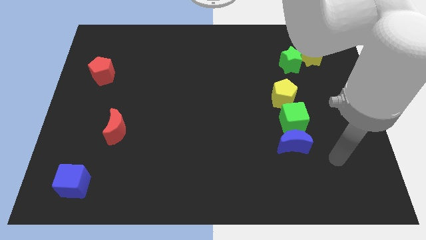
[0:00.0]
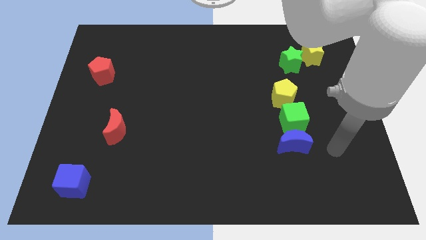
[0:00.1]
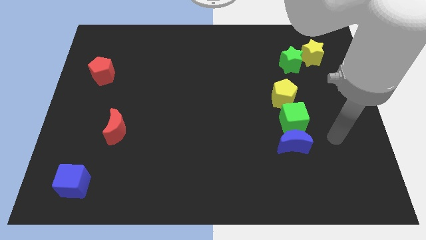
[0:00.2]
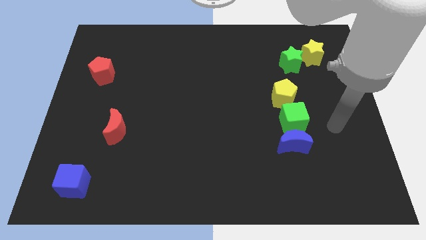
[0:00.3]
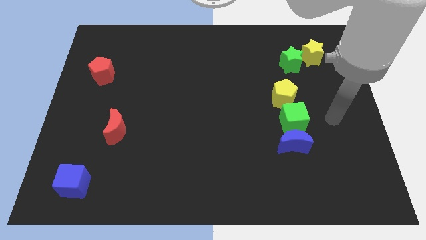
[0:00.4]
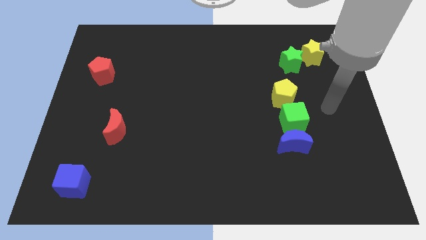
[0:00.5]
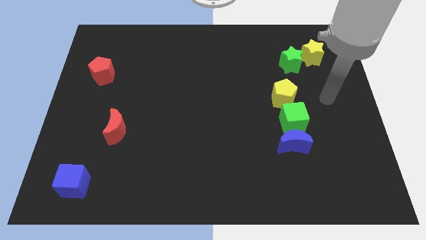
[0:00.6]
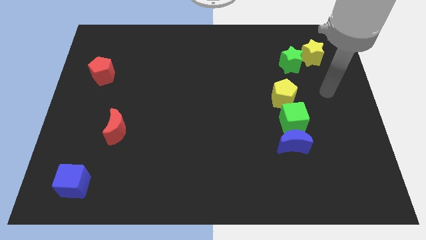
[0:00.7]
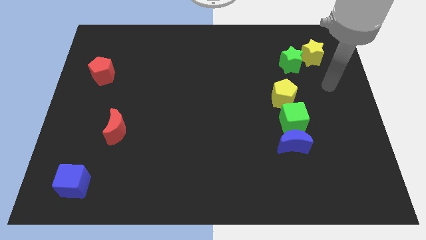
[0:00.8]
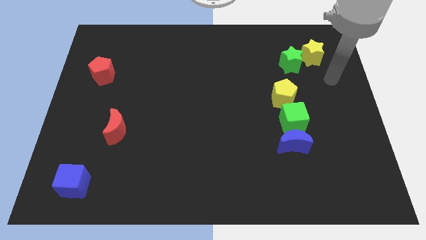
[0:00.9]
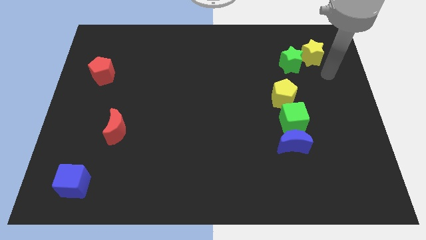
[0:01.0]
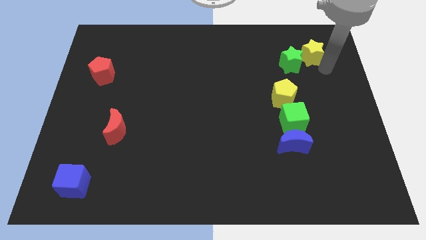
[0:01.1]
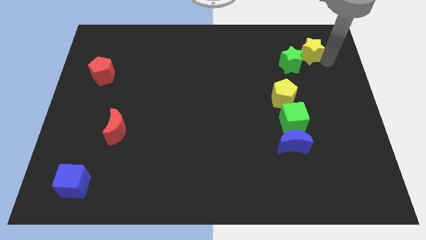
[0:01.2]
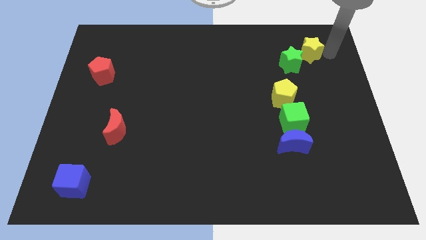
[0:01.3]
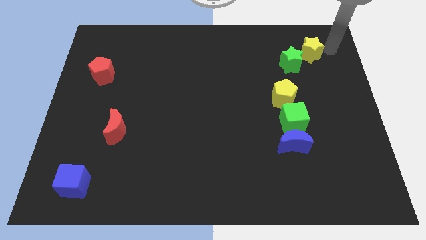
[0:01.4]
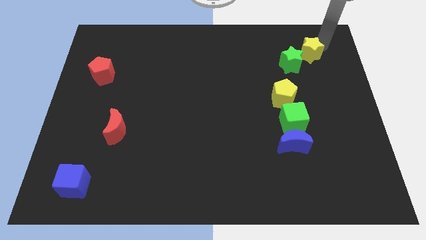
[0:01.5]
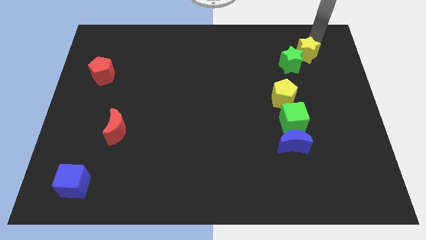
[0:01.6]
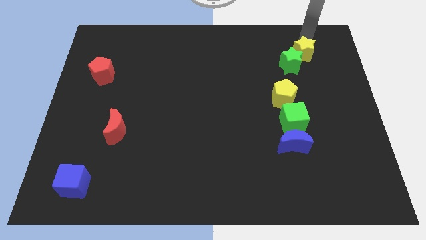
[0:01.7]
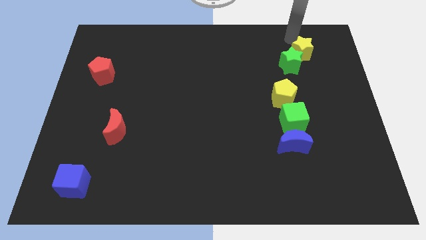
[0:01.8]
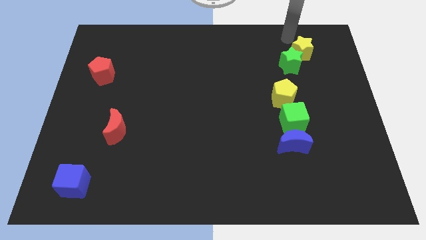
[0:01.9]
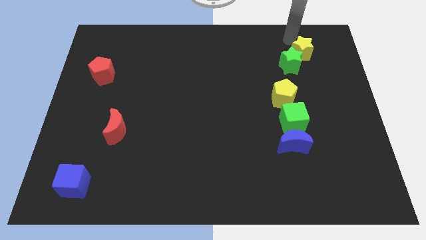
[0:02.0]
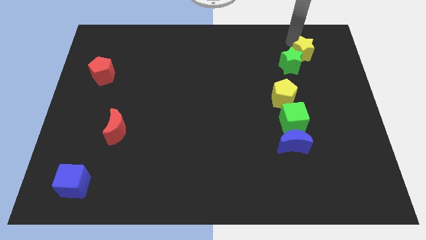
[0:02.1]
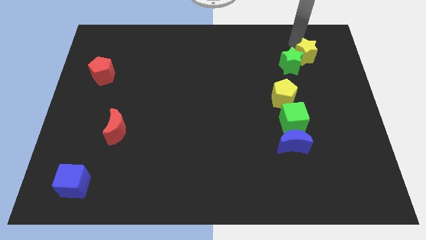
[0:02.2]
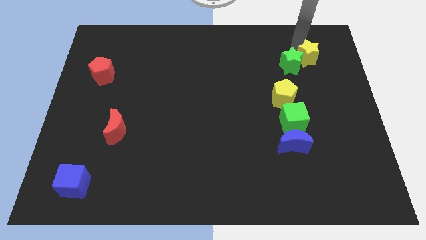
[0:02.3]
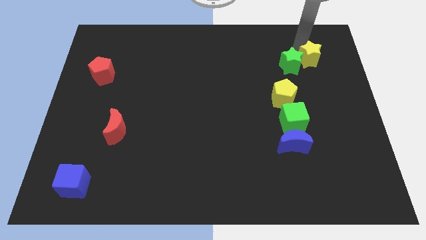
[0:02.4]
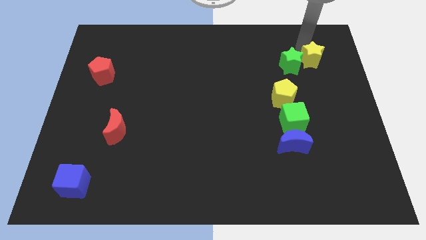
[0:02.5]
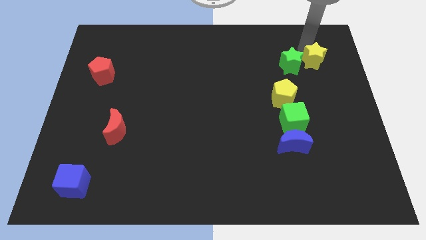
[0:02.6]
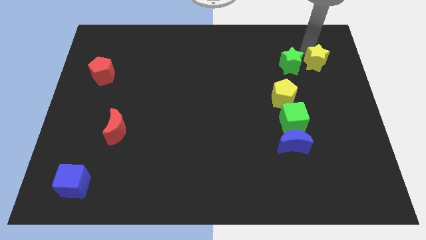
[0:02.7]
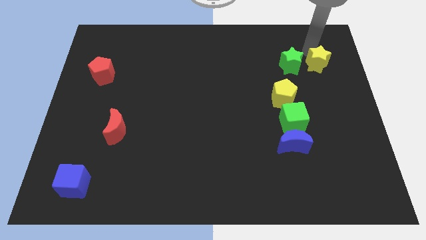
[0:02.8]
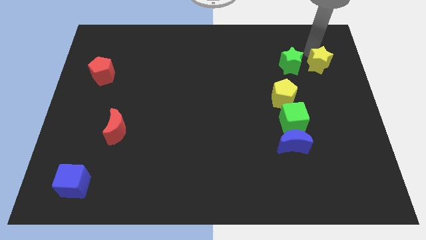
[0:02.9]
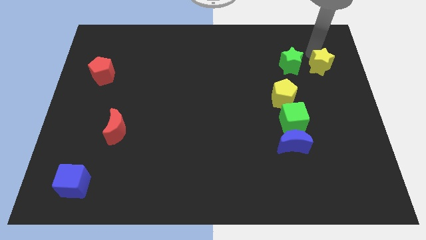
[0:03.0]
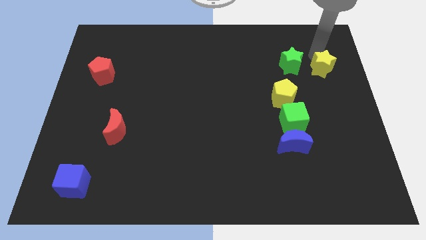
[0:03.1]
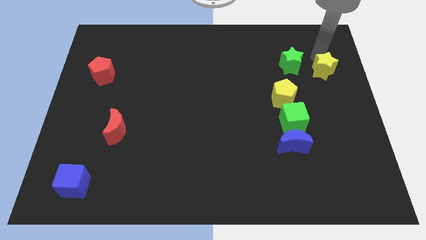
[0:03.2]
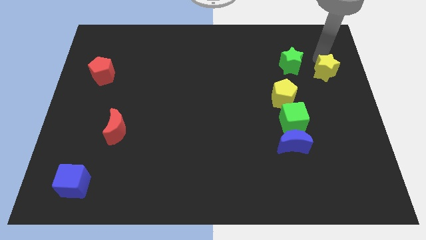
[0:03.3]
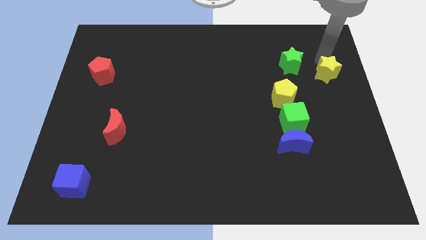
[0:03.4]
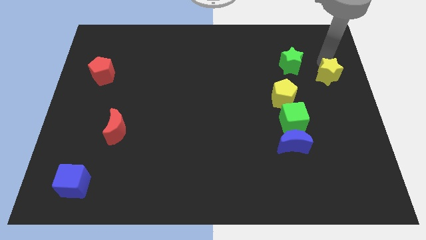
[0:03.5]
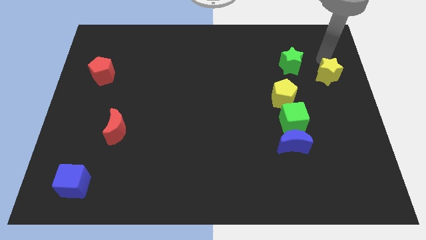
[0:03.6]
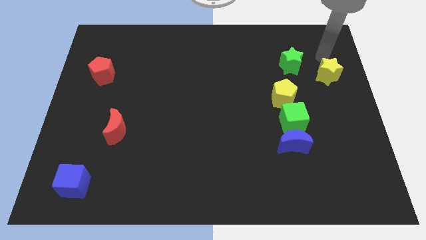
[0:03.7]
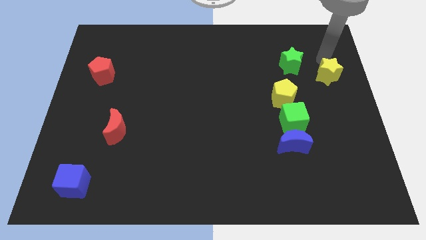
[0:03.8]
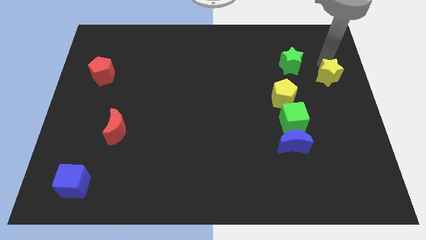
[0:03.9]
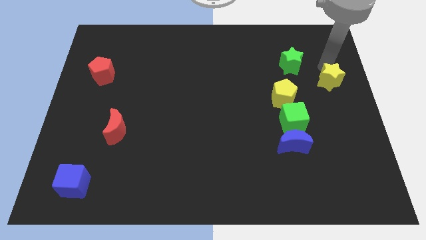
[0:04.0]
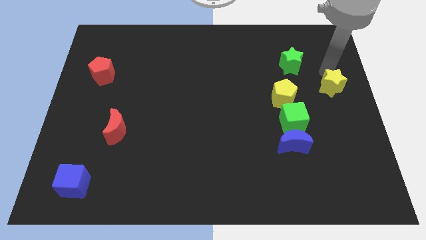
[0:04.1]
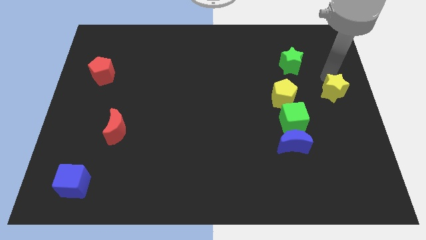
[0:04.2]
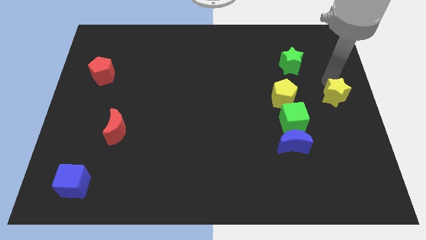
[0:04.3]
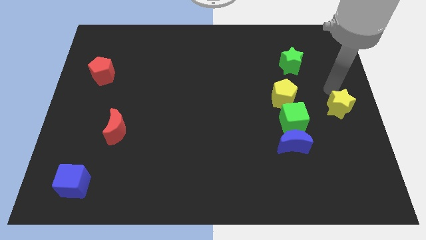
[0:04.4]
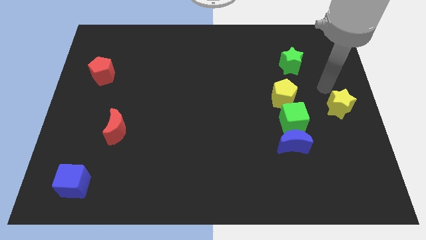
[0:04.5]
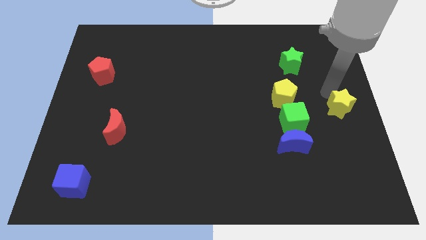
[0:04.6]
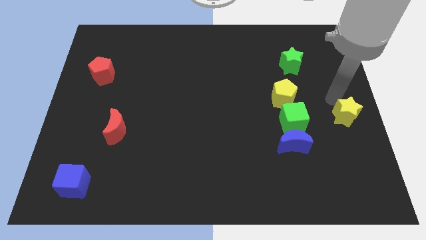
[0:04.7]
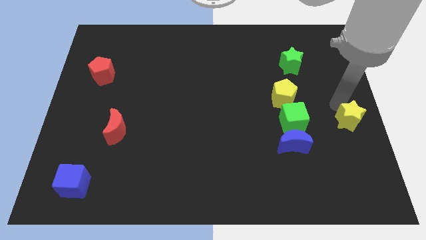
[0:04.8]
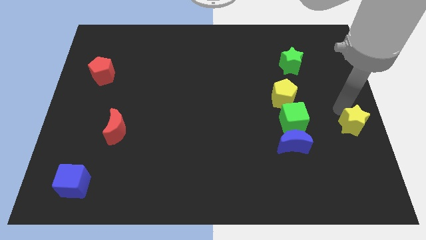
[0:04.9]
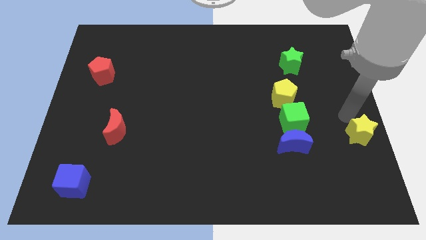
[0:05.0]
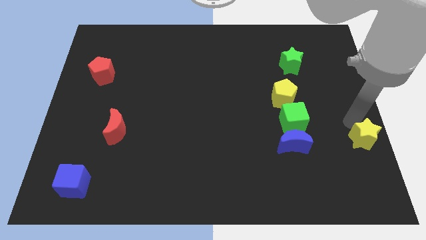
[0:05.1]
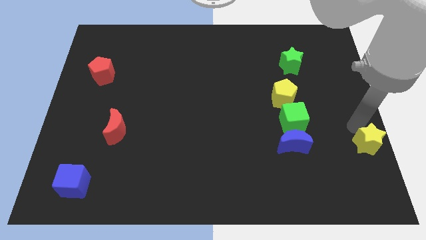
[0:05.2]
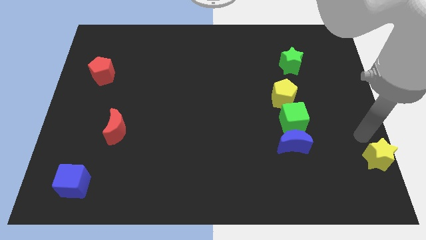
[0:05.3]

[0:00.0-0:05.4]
put the yellow star to the bottom right corner

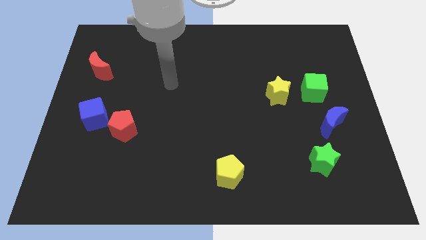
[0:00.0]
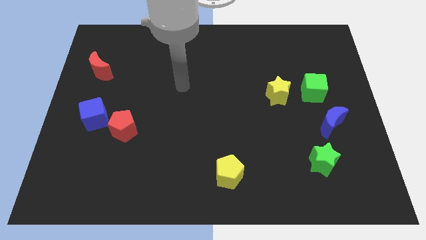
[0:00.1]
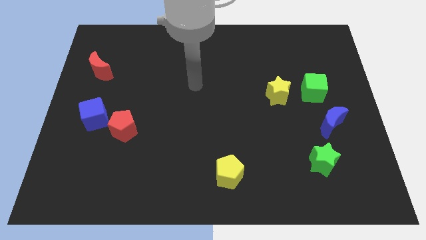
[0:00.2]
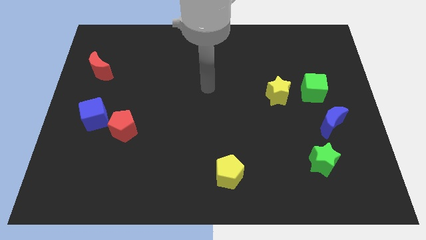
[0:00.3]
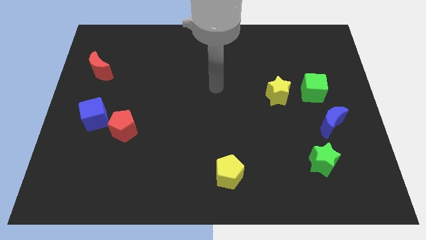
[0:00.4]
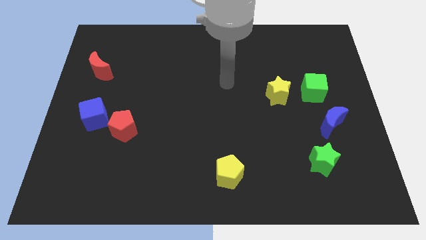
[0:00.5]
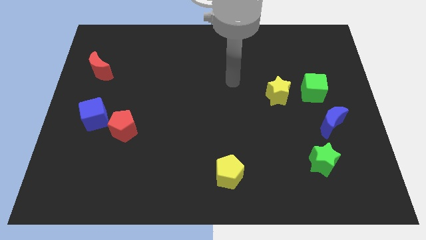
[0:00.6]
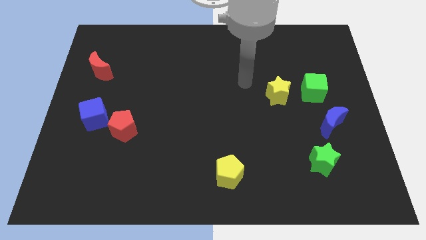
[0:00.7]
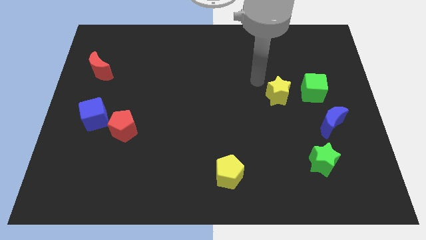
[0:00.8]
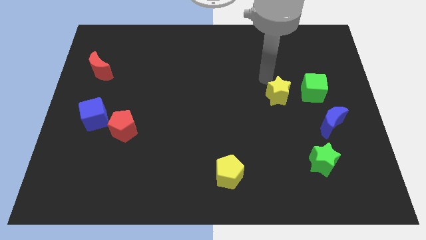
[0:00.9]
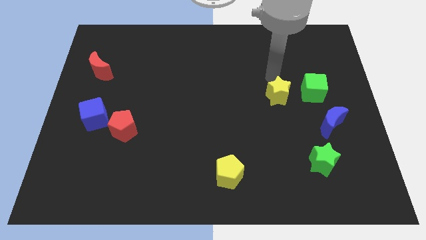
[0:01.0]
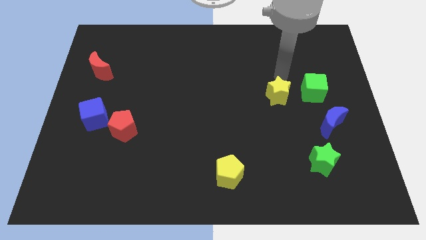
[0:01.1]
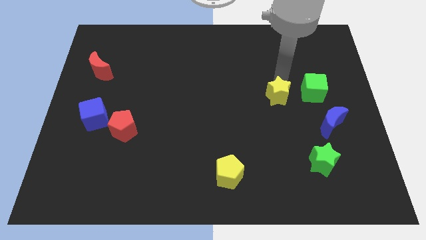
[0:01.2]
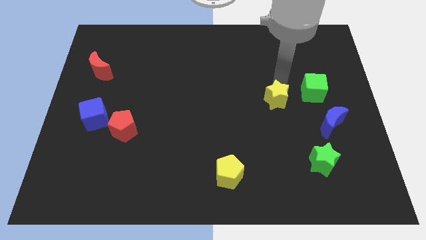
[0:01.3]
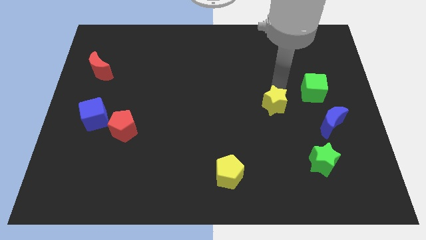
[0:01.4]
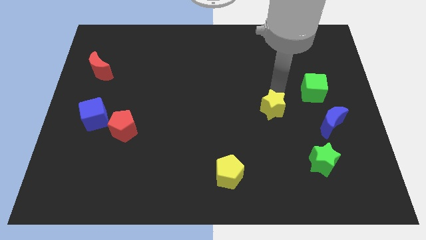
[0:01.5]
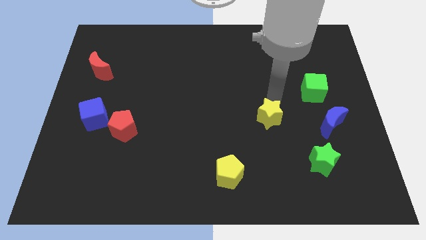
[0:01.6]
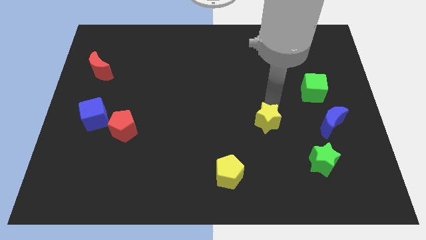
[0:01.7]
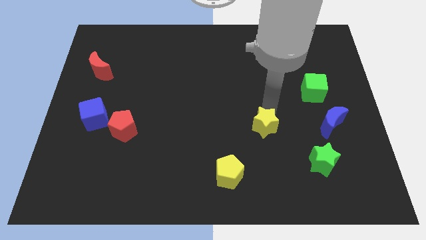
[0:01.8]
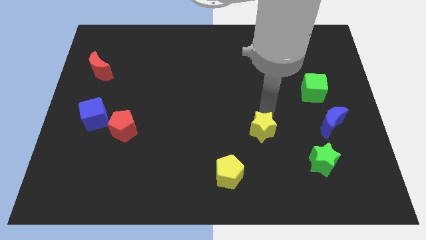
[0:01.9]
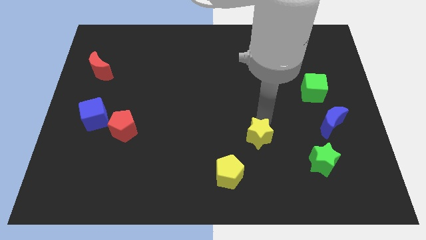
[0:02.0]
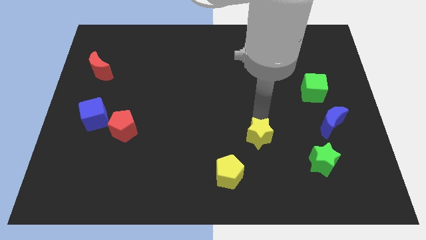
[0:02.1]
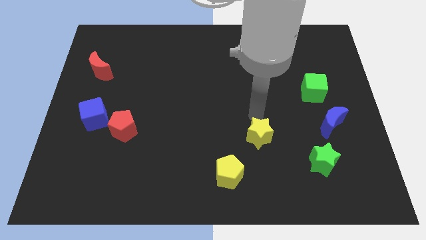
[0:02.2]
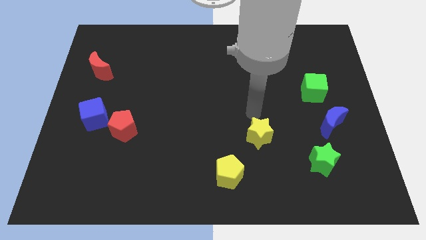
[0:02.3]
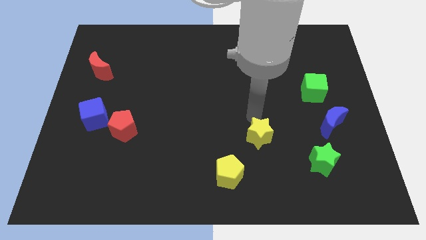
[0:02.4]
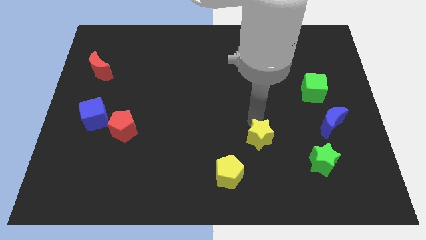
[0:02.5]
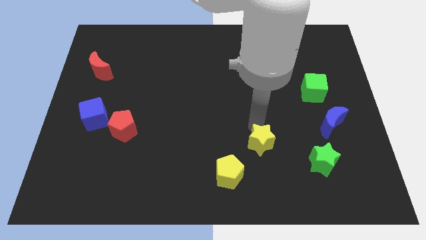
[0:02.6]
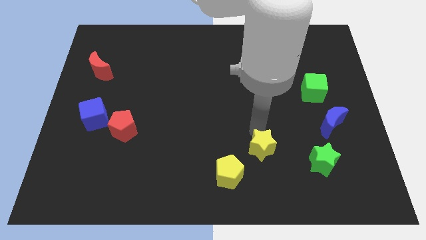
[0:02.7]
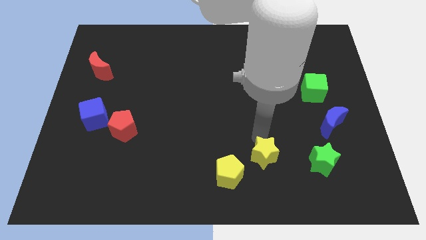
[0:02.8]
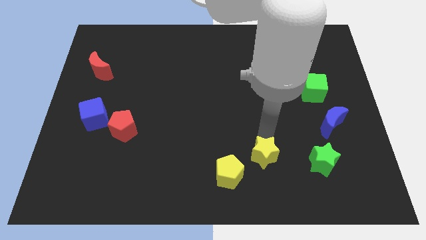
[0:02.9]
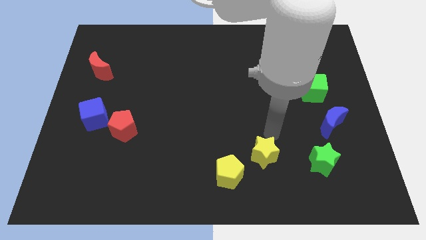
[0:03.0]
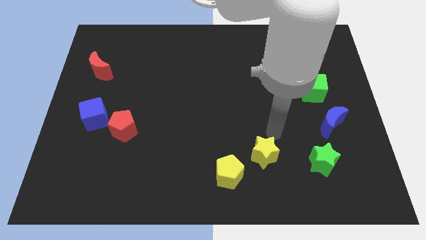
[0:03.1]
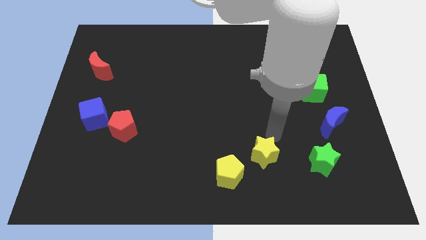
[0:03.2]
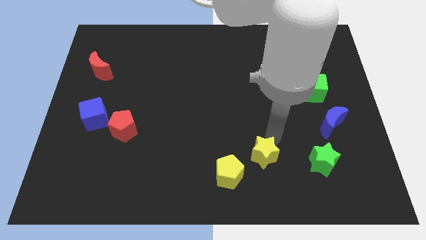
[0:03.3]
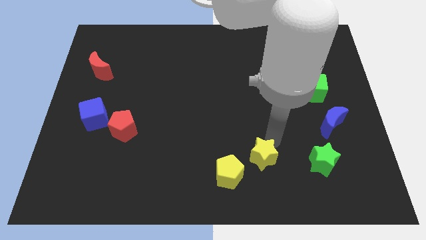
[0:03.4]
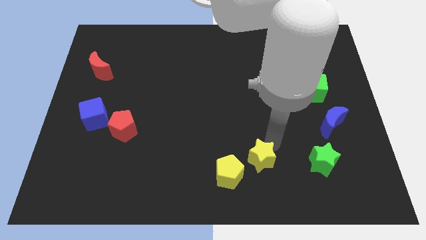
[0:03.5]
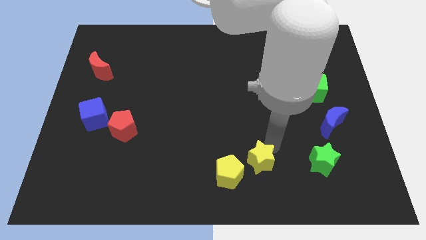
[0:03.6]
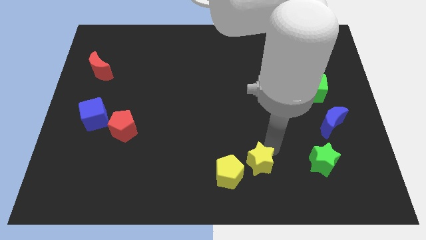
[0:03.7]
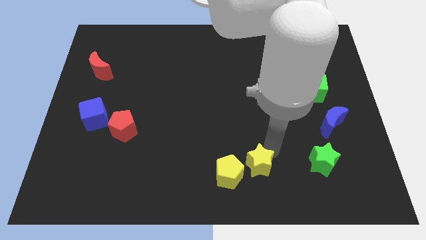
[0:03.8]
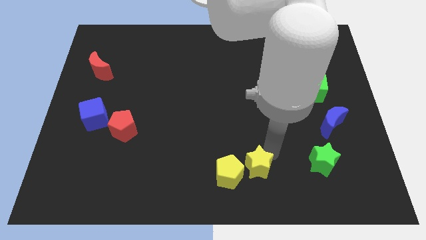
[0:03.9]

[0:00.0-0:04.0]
slide the yellow star to the bottom side
